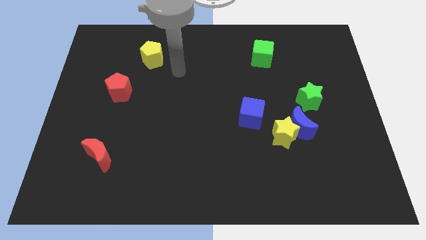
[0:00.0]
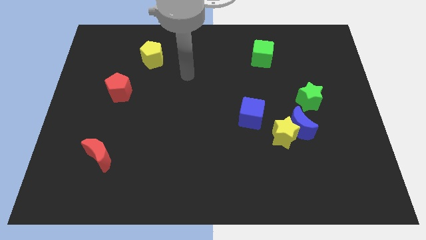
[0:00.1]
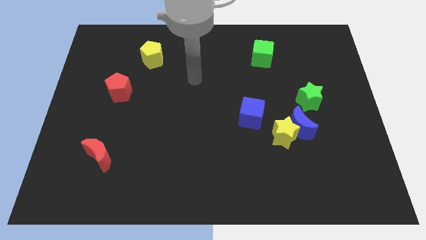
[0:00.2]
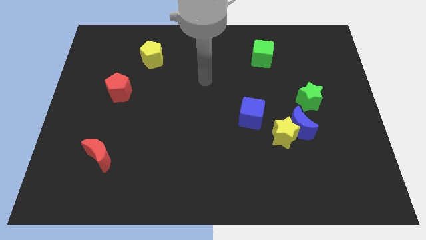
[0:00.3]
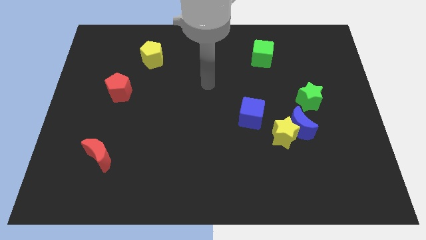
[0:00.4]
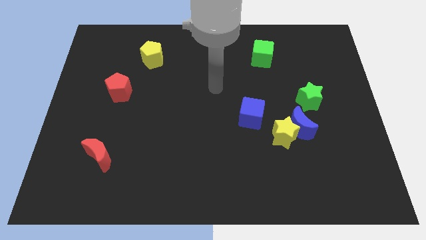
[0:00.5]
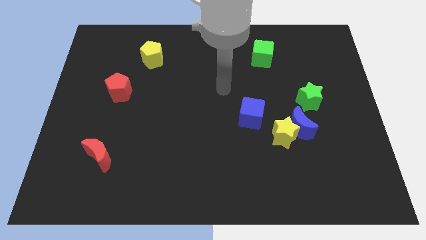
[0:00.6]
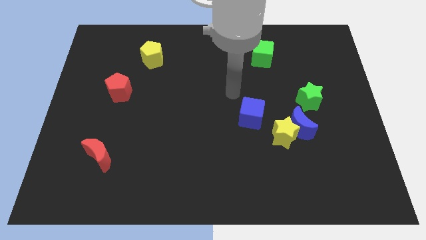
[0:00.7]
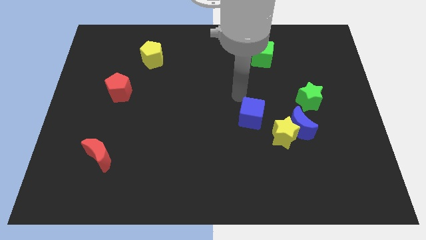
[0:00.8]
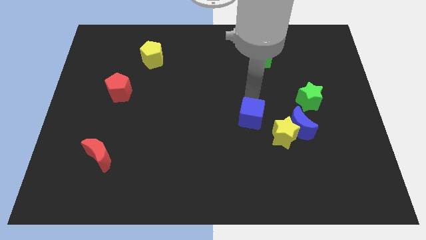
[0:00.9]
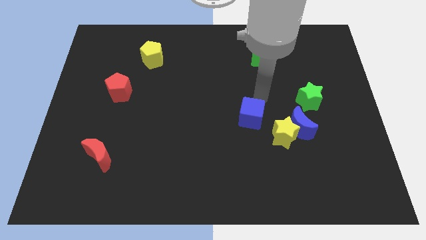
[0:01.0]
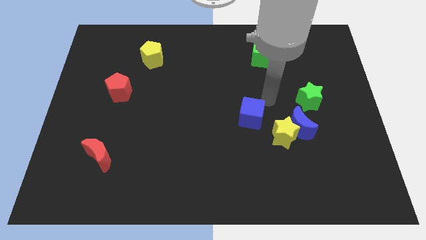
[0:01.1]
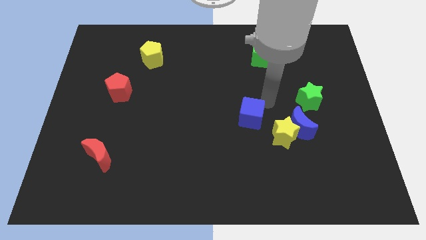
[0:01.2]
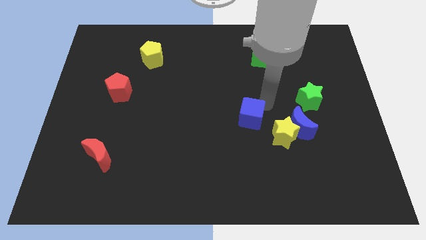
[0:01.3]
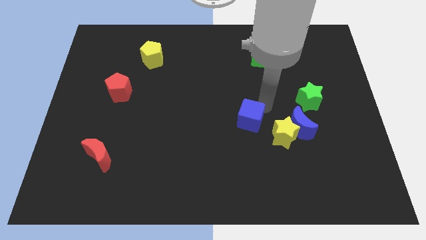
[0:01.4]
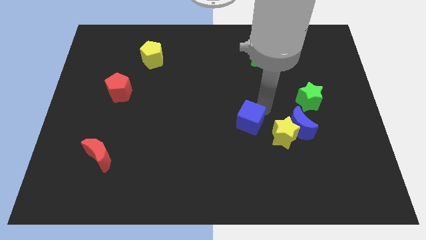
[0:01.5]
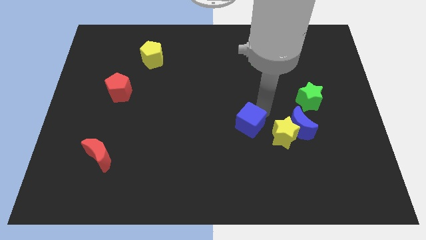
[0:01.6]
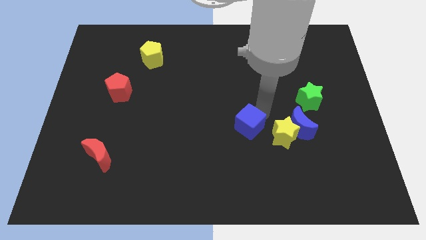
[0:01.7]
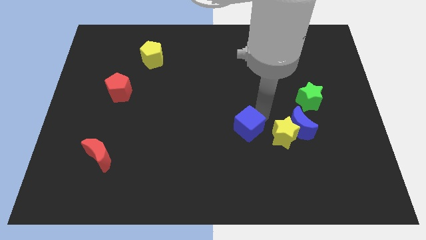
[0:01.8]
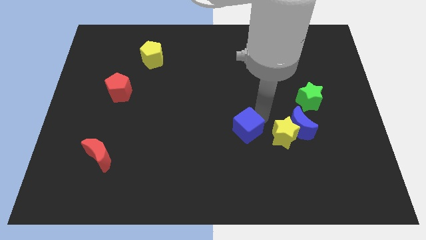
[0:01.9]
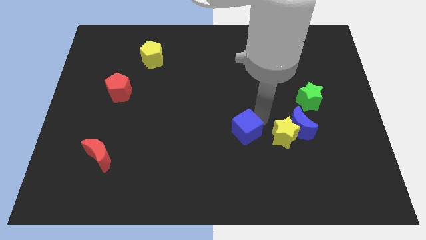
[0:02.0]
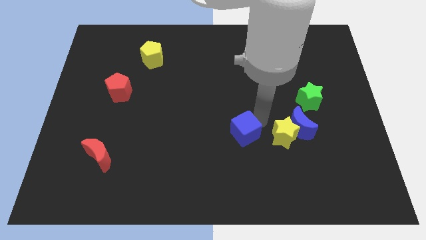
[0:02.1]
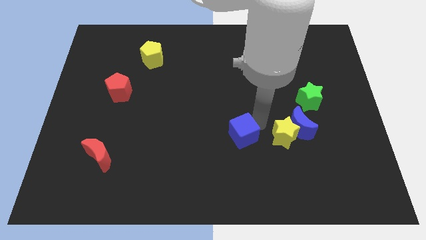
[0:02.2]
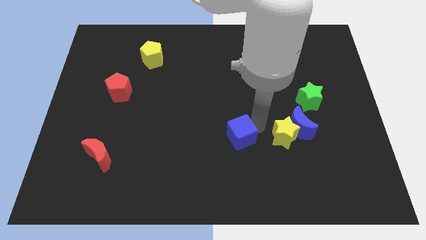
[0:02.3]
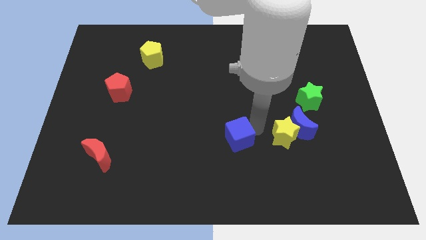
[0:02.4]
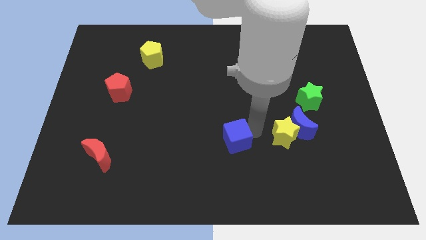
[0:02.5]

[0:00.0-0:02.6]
slide the blue cube down and then to the left somewhat

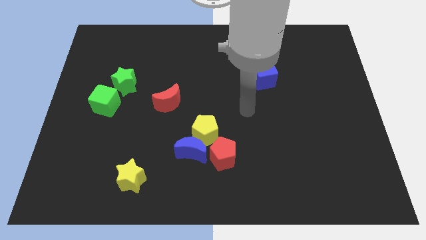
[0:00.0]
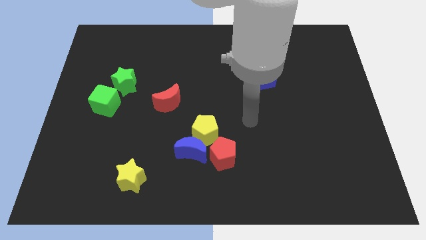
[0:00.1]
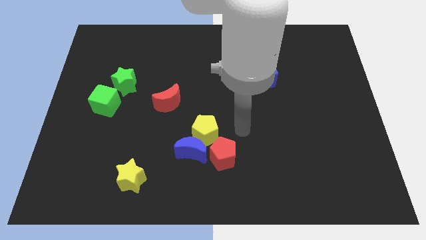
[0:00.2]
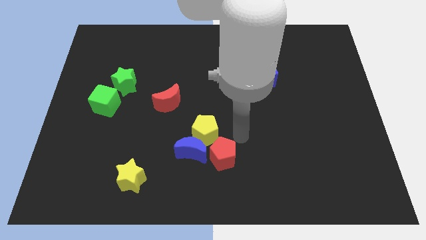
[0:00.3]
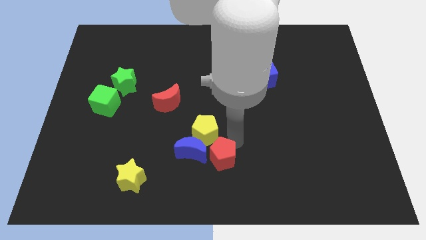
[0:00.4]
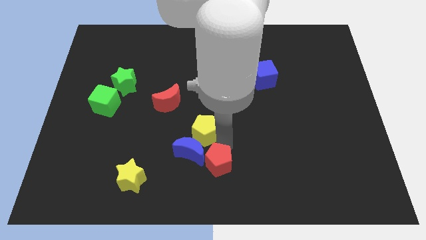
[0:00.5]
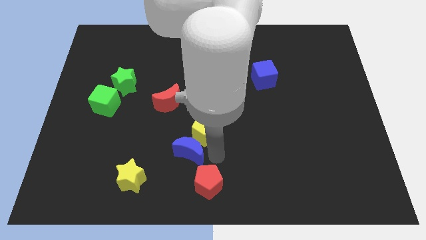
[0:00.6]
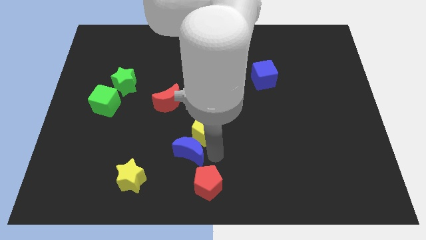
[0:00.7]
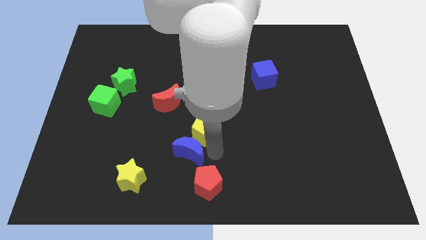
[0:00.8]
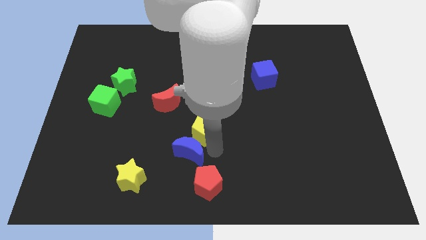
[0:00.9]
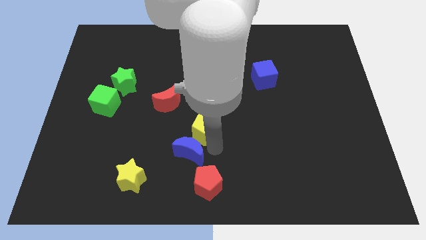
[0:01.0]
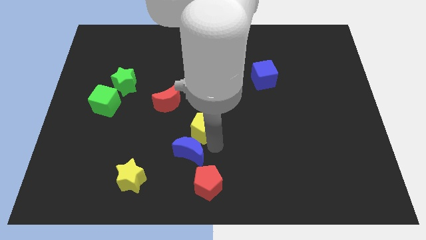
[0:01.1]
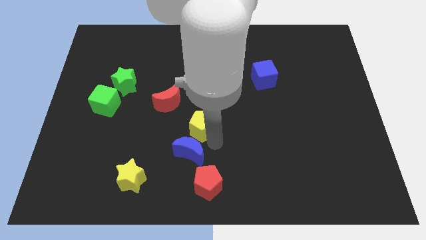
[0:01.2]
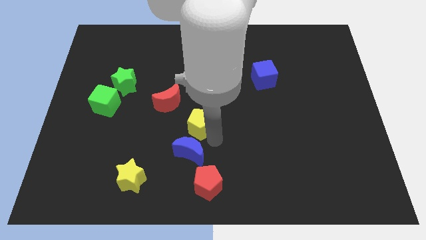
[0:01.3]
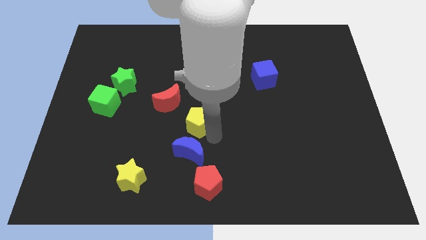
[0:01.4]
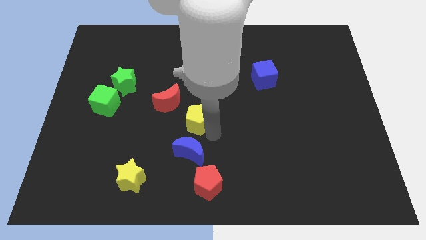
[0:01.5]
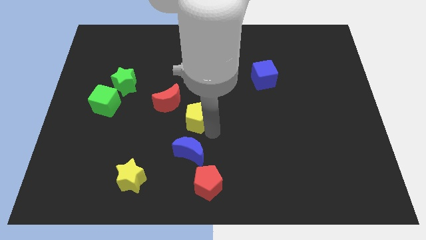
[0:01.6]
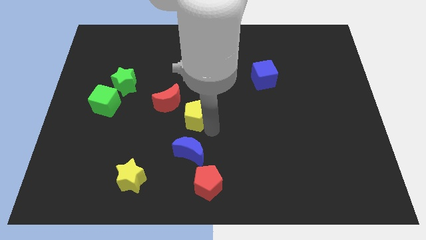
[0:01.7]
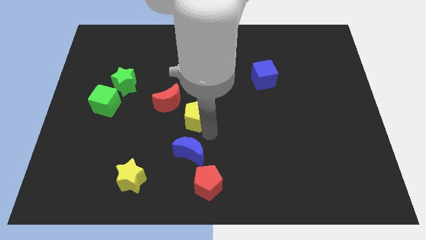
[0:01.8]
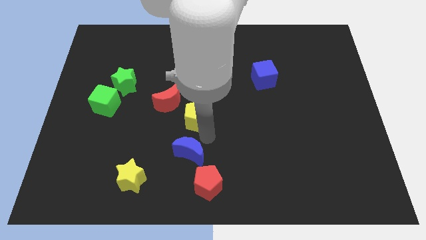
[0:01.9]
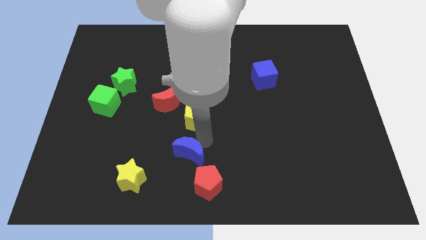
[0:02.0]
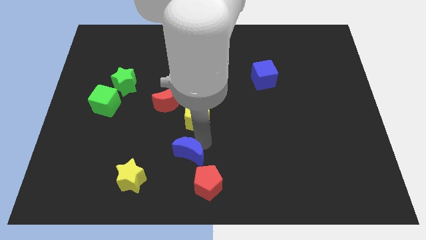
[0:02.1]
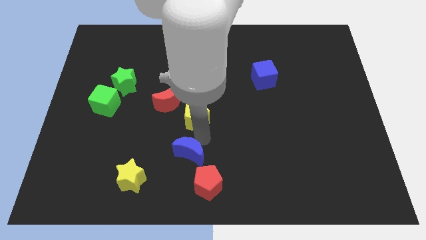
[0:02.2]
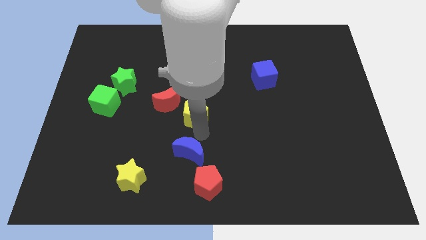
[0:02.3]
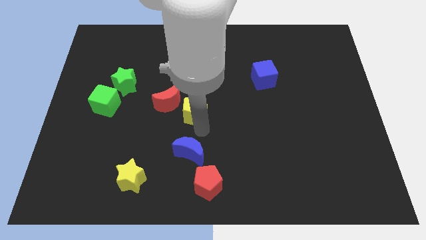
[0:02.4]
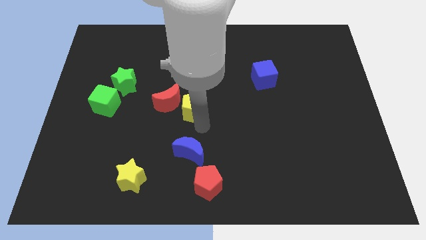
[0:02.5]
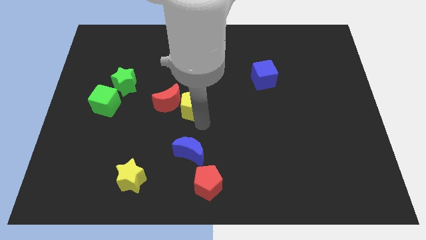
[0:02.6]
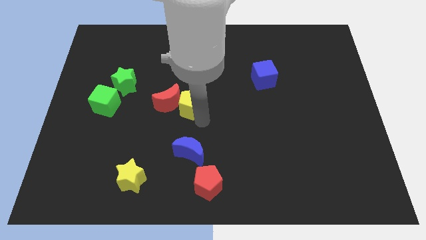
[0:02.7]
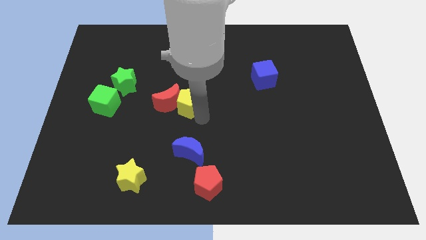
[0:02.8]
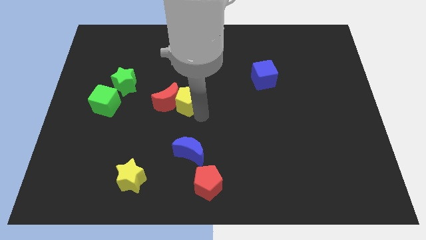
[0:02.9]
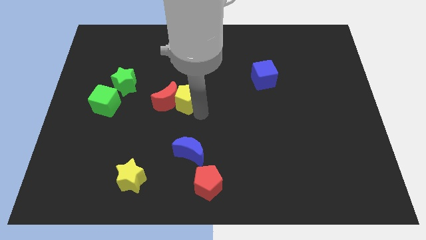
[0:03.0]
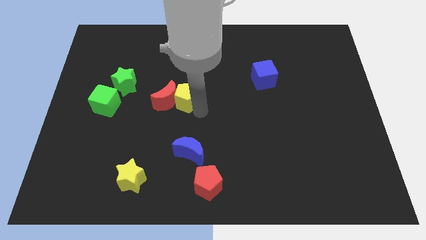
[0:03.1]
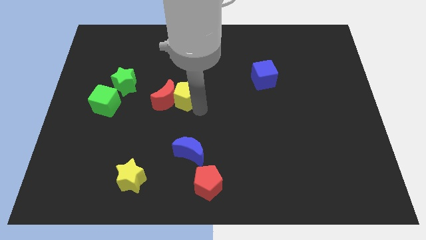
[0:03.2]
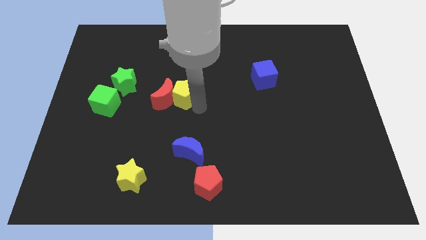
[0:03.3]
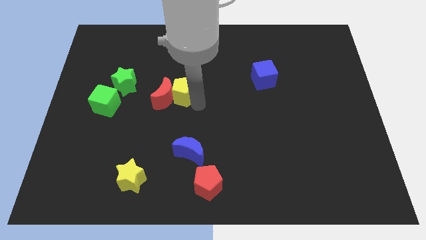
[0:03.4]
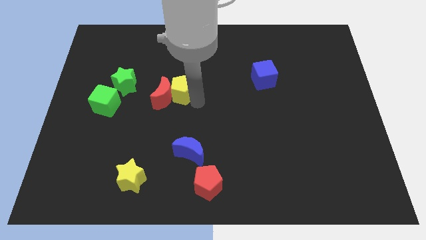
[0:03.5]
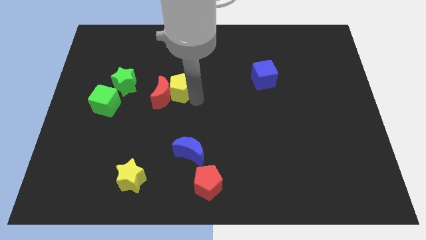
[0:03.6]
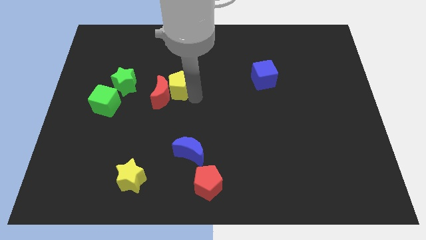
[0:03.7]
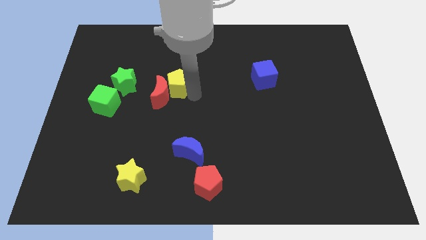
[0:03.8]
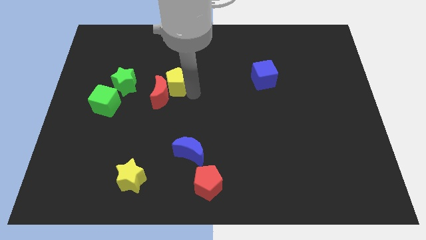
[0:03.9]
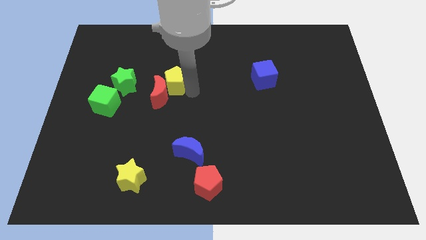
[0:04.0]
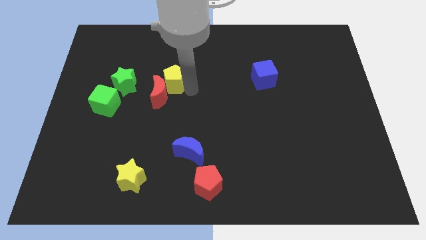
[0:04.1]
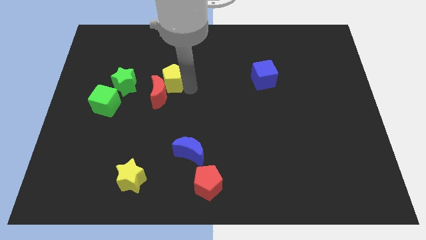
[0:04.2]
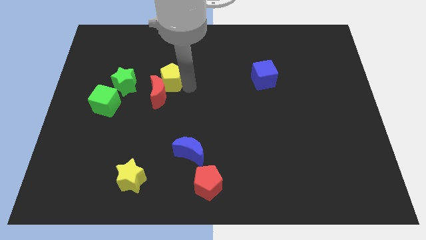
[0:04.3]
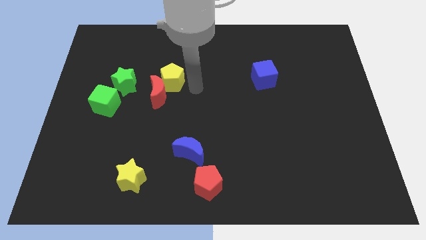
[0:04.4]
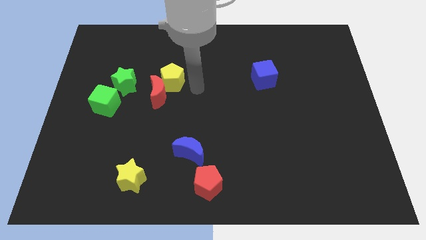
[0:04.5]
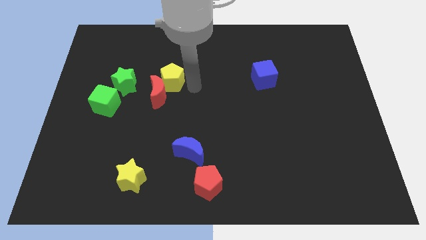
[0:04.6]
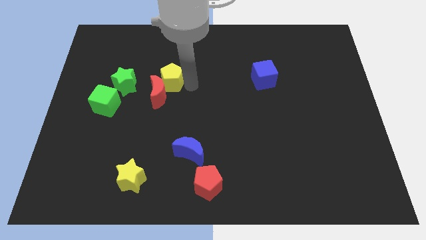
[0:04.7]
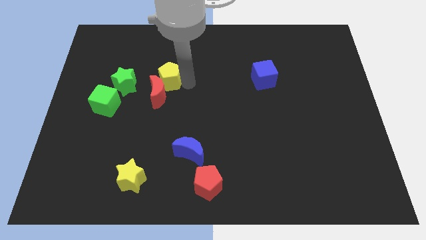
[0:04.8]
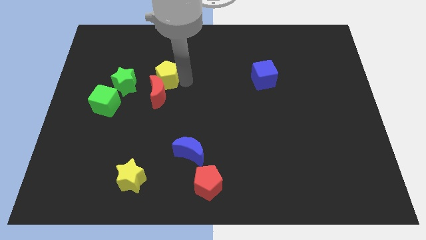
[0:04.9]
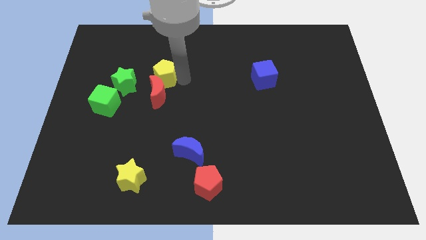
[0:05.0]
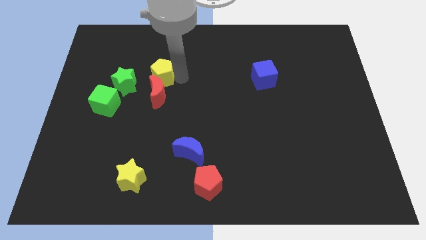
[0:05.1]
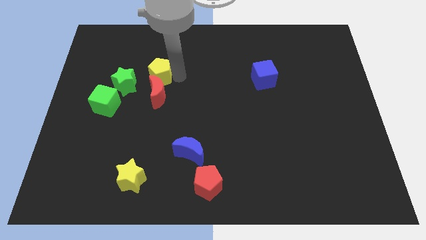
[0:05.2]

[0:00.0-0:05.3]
push the yellow pentagon upwards and left diagonally

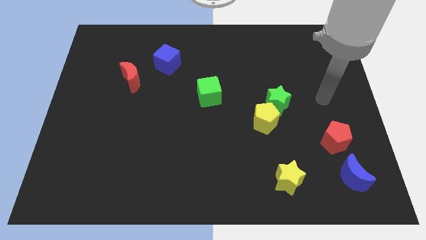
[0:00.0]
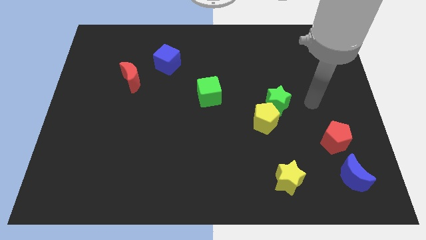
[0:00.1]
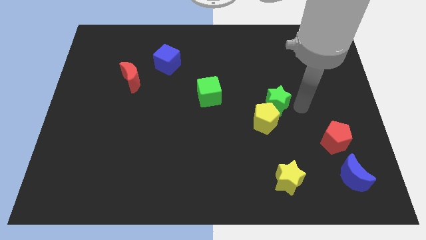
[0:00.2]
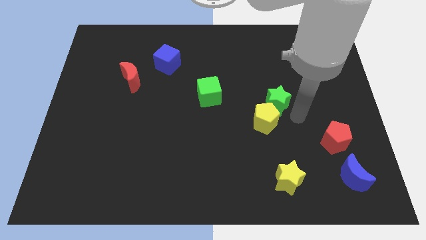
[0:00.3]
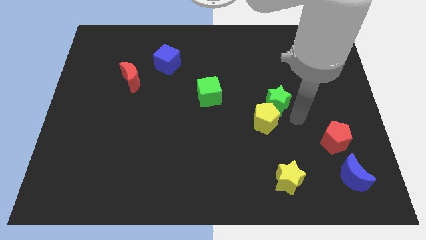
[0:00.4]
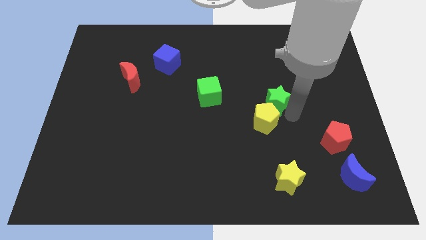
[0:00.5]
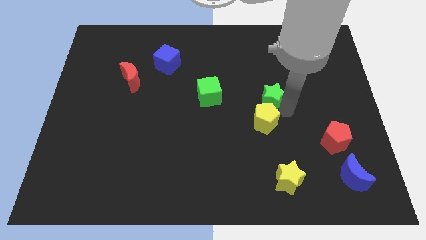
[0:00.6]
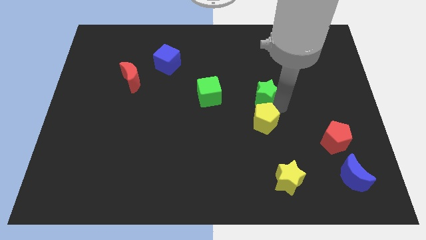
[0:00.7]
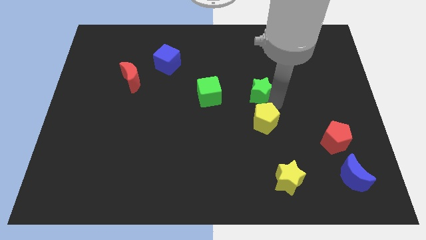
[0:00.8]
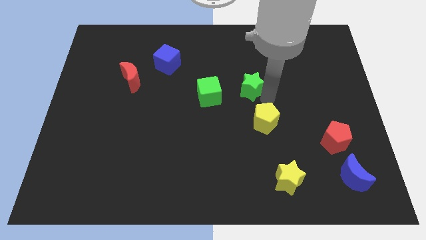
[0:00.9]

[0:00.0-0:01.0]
slightly slide the green star upwards and to the left diagonally
